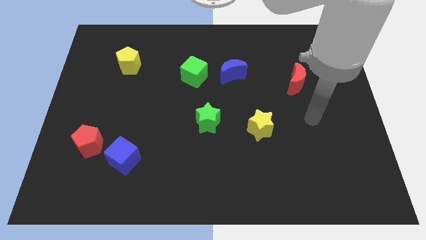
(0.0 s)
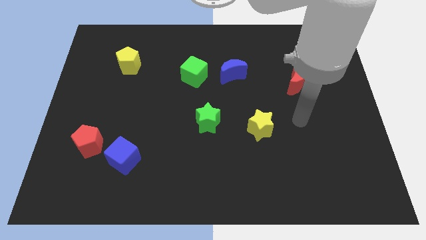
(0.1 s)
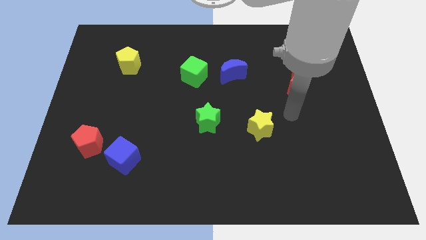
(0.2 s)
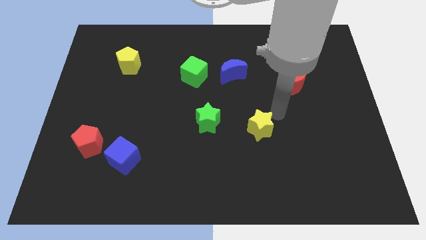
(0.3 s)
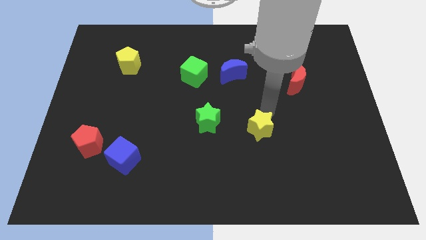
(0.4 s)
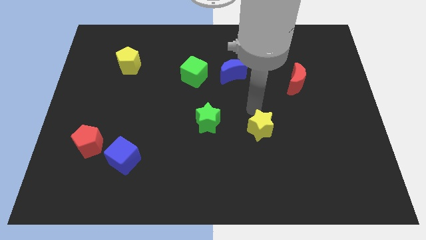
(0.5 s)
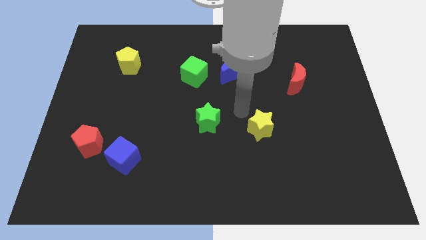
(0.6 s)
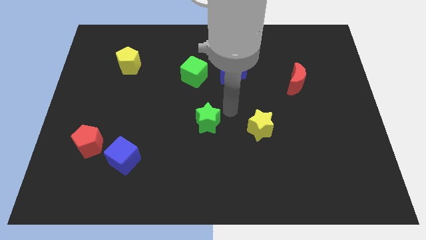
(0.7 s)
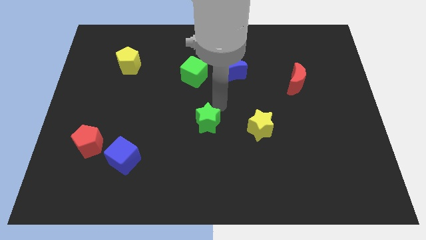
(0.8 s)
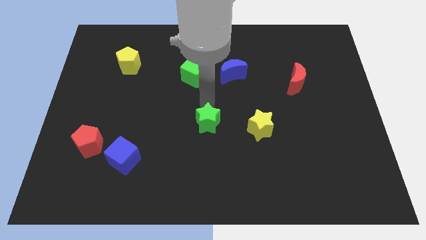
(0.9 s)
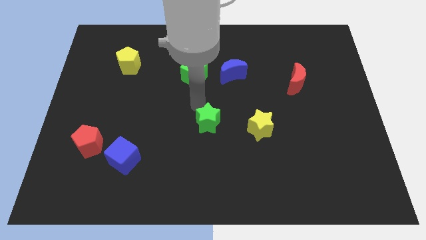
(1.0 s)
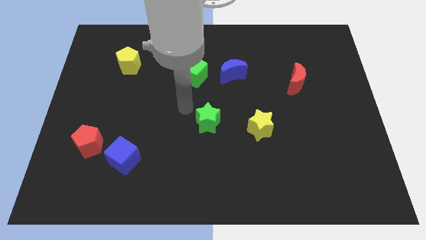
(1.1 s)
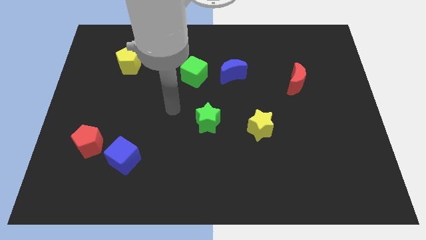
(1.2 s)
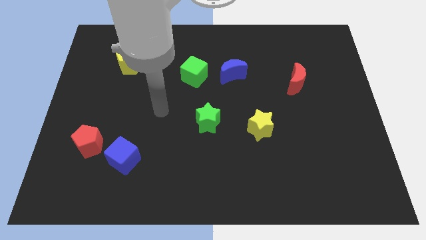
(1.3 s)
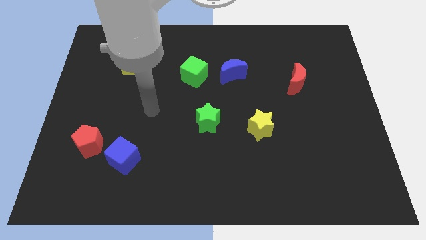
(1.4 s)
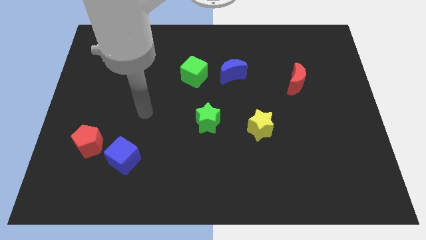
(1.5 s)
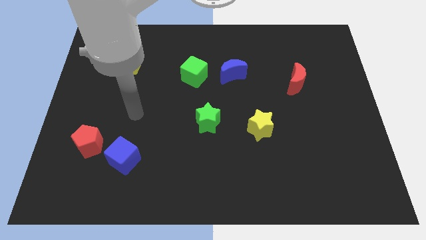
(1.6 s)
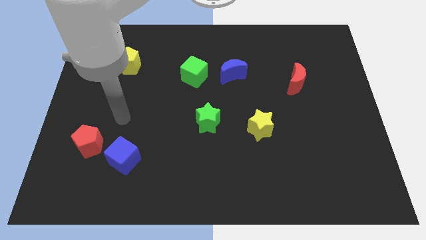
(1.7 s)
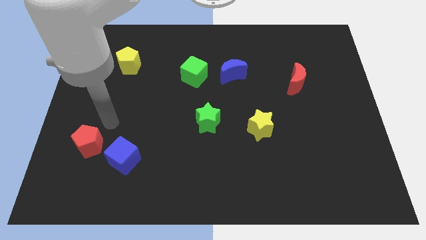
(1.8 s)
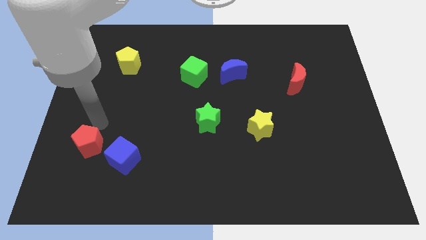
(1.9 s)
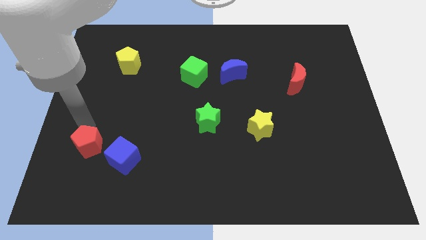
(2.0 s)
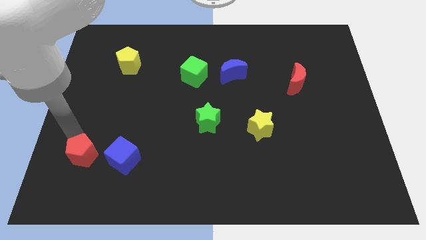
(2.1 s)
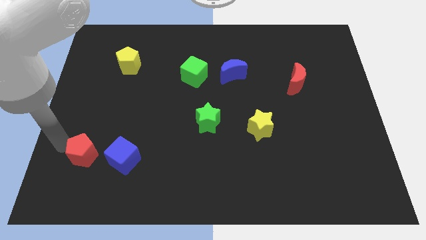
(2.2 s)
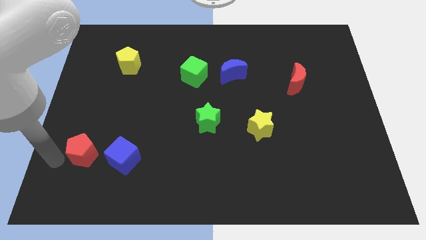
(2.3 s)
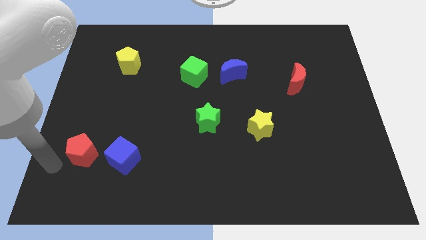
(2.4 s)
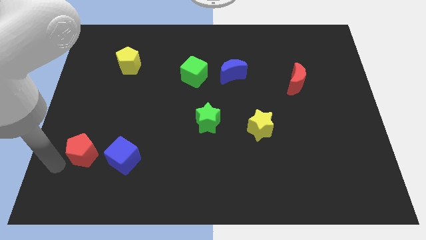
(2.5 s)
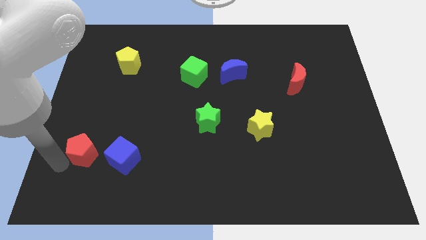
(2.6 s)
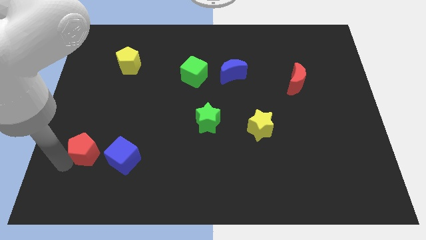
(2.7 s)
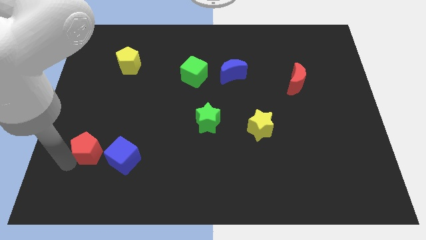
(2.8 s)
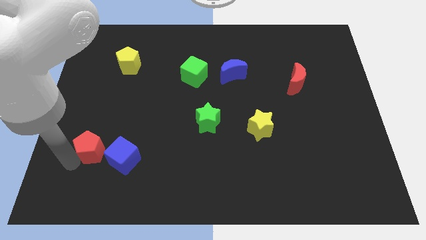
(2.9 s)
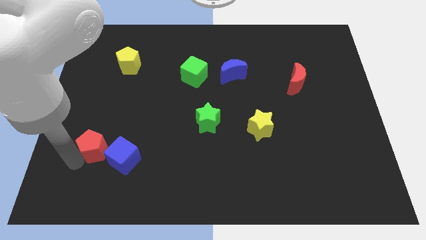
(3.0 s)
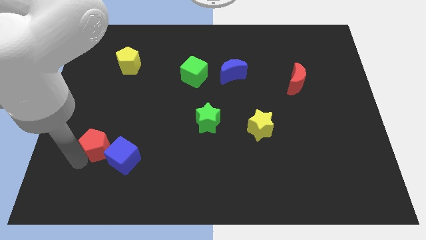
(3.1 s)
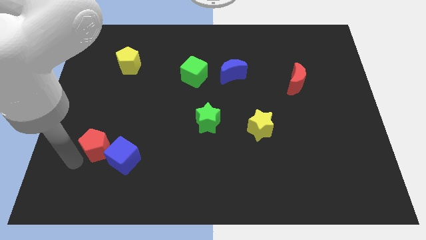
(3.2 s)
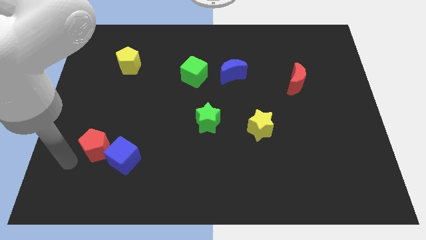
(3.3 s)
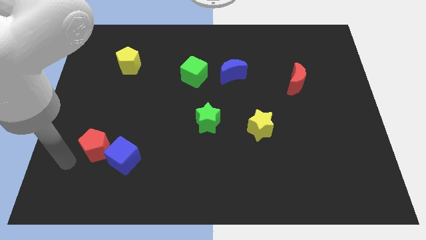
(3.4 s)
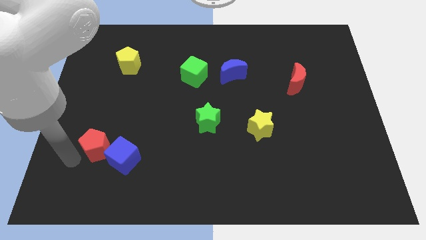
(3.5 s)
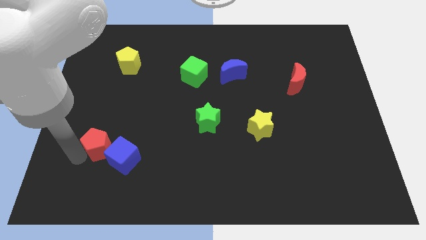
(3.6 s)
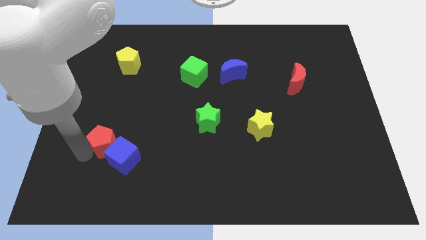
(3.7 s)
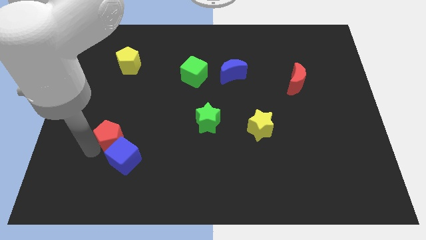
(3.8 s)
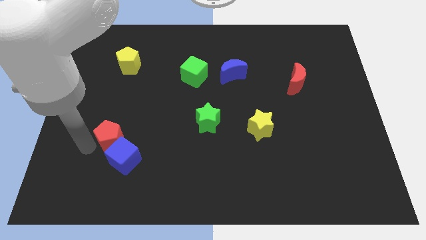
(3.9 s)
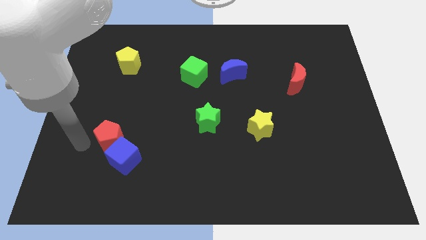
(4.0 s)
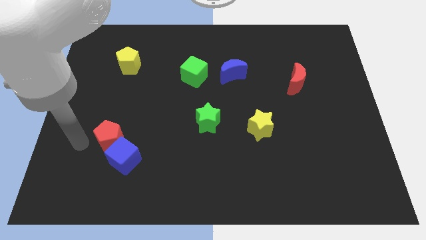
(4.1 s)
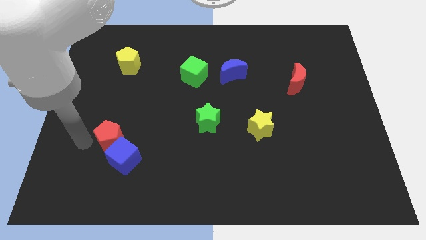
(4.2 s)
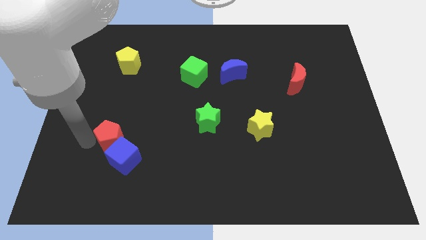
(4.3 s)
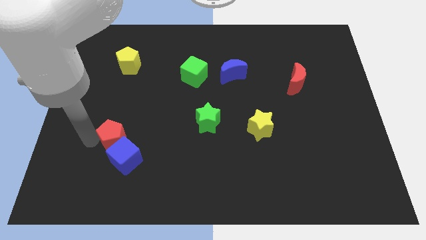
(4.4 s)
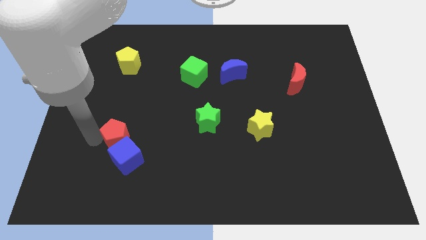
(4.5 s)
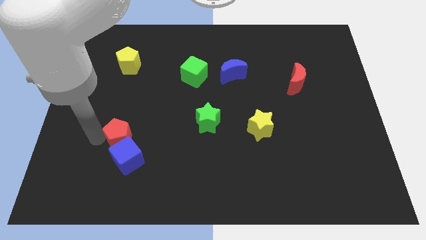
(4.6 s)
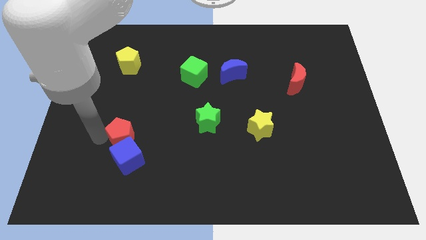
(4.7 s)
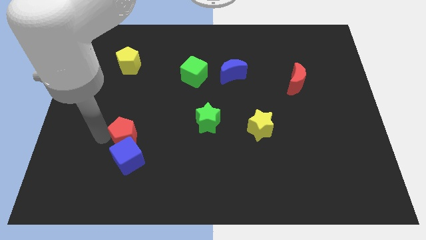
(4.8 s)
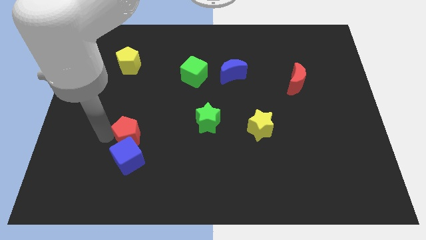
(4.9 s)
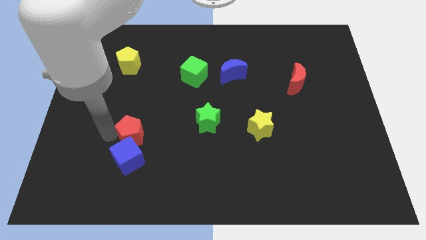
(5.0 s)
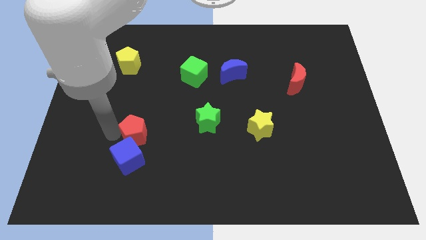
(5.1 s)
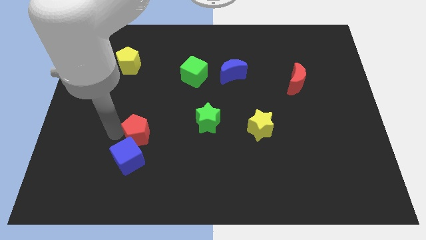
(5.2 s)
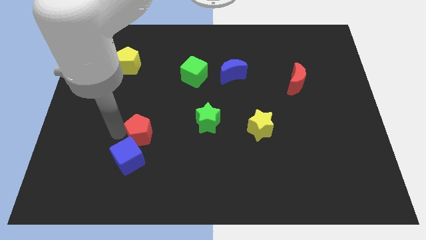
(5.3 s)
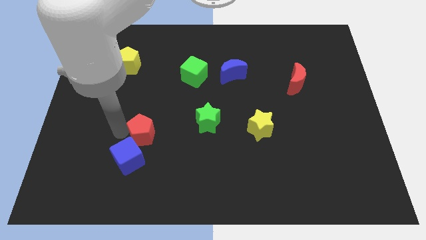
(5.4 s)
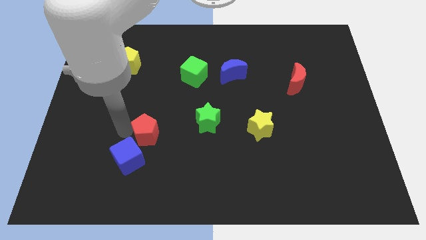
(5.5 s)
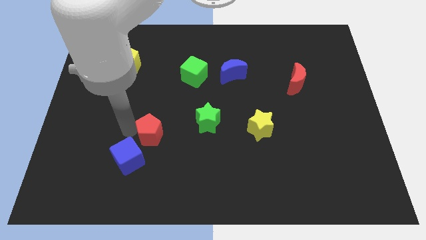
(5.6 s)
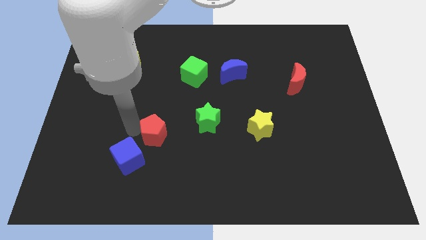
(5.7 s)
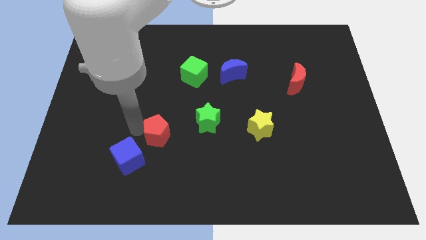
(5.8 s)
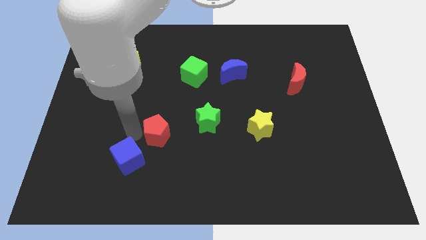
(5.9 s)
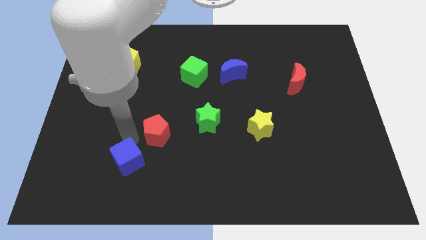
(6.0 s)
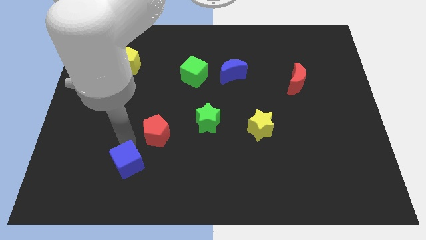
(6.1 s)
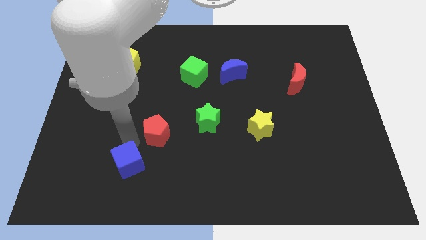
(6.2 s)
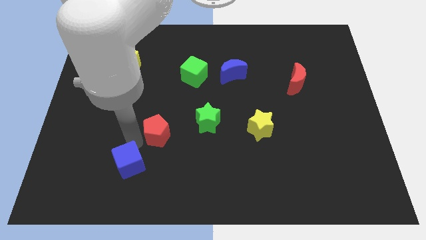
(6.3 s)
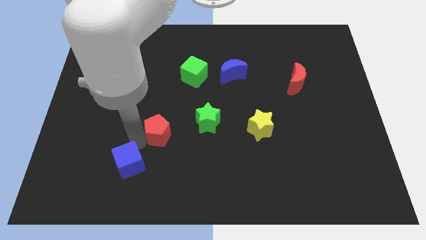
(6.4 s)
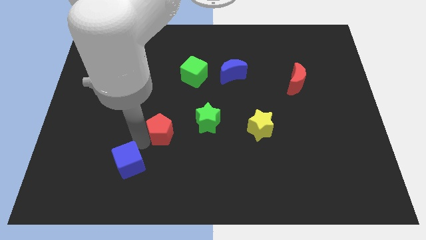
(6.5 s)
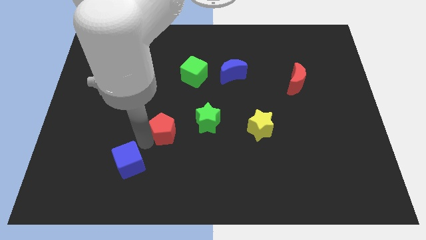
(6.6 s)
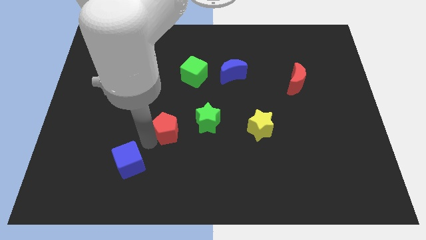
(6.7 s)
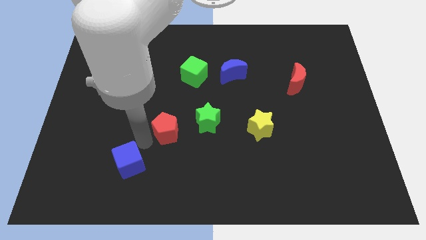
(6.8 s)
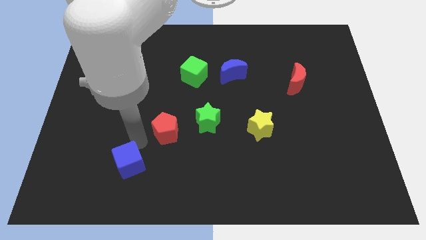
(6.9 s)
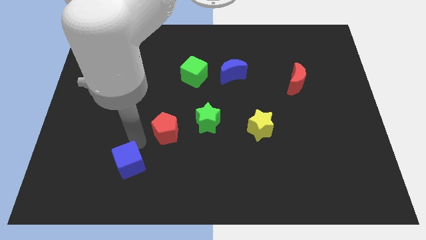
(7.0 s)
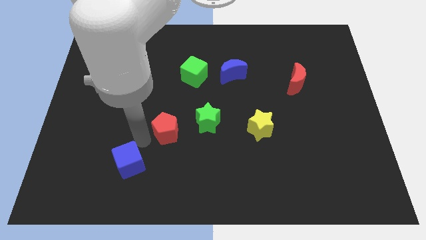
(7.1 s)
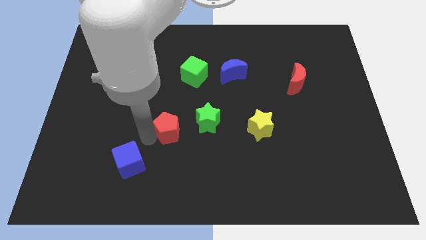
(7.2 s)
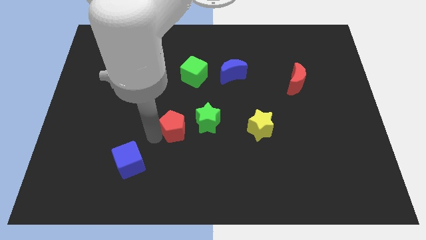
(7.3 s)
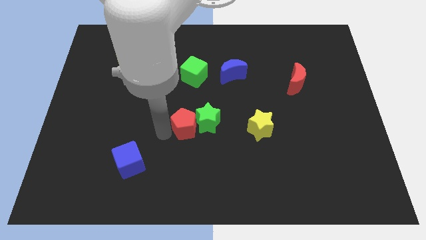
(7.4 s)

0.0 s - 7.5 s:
push the red pentagon next to the green star
